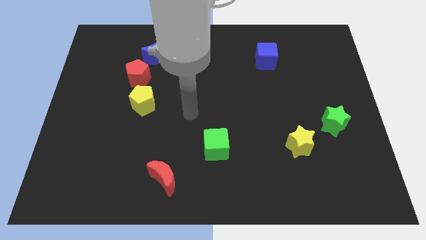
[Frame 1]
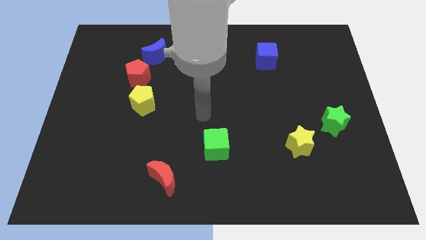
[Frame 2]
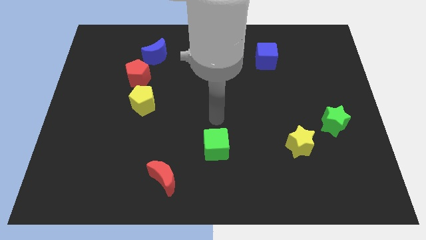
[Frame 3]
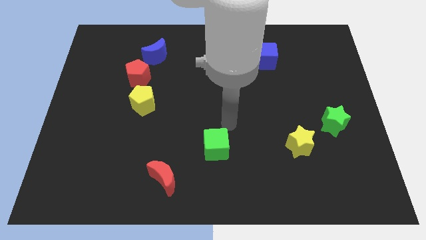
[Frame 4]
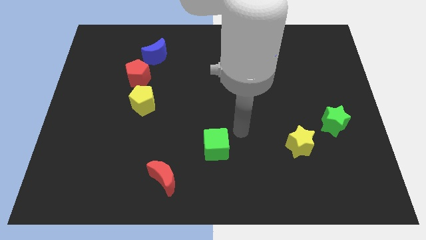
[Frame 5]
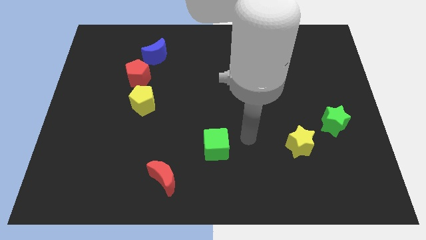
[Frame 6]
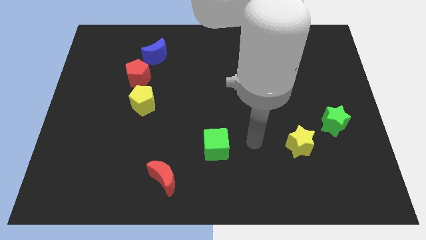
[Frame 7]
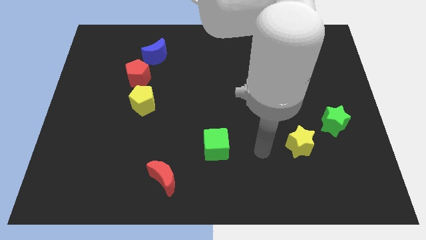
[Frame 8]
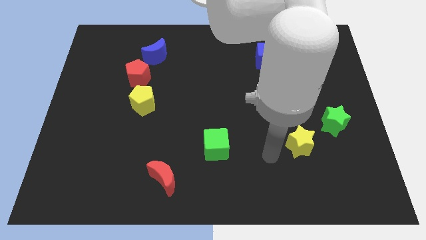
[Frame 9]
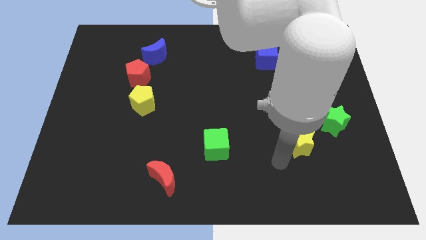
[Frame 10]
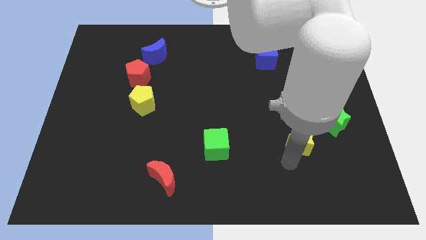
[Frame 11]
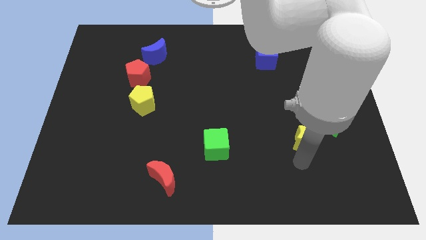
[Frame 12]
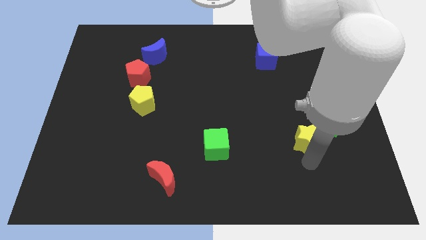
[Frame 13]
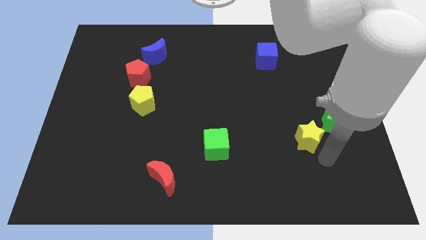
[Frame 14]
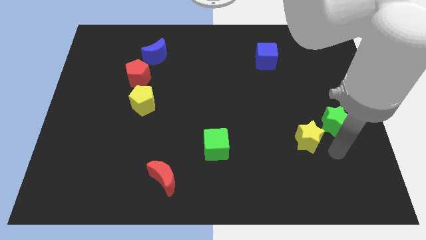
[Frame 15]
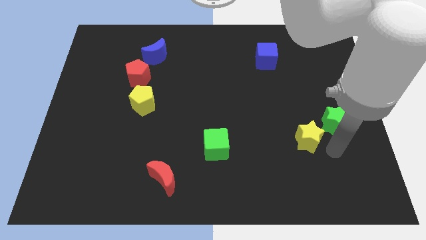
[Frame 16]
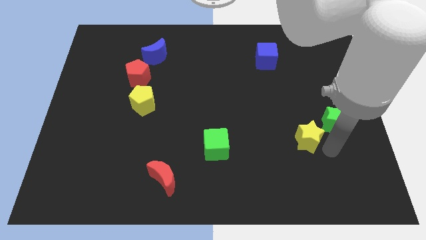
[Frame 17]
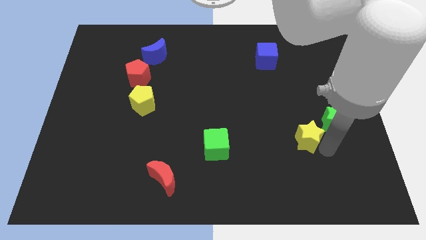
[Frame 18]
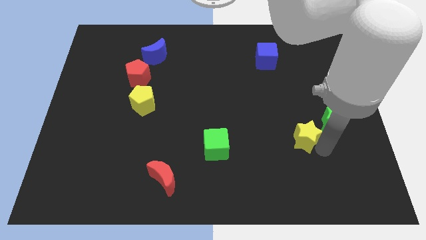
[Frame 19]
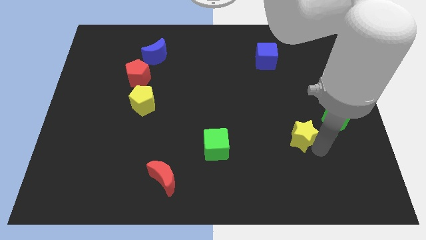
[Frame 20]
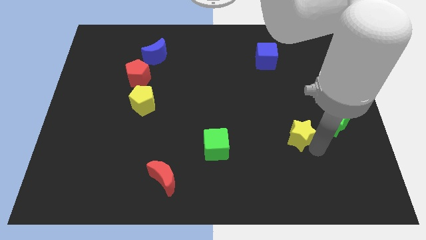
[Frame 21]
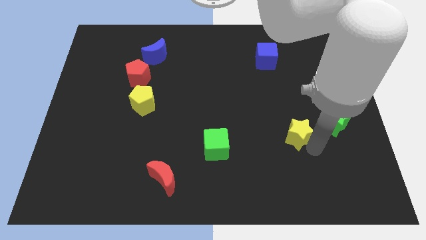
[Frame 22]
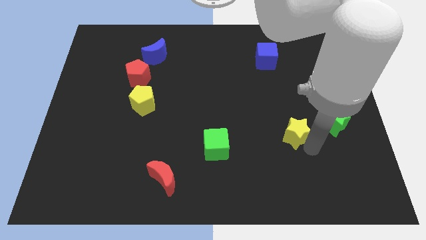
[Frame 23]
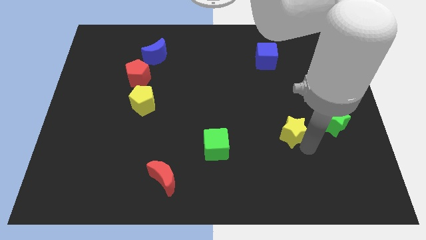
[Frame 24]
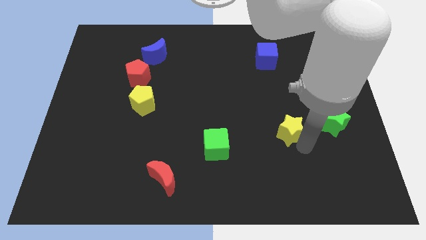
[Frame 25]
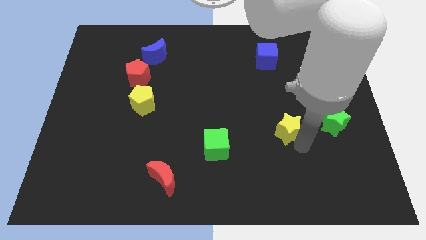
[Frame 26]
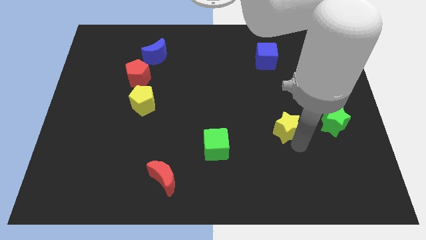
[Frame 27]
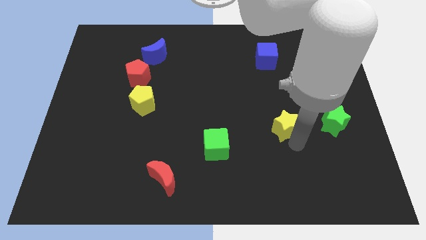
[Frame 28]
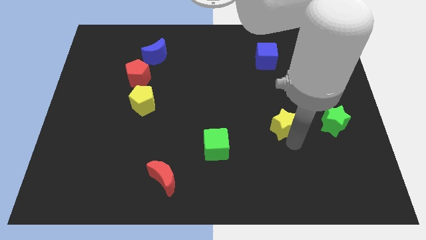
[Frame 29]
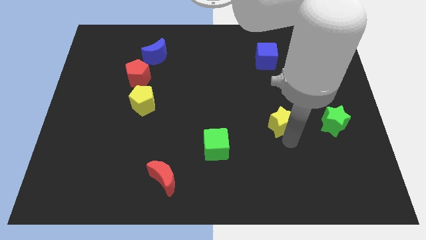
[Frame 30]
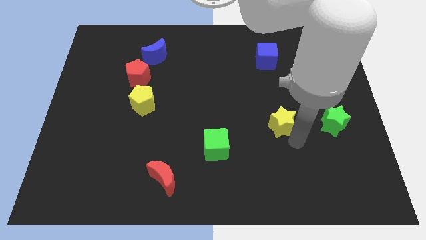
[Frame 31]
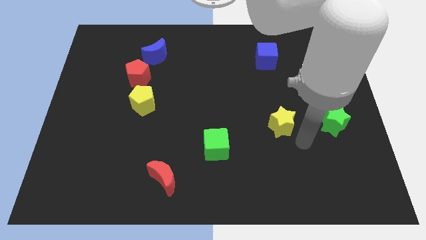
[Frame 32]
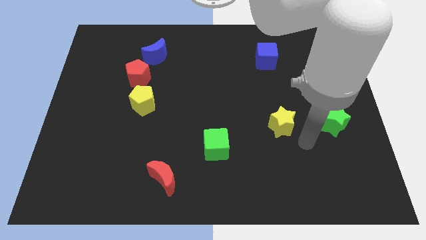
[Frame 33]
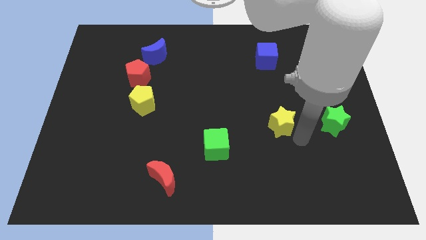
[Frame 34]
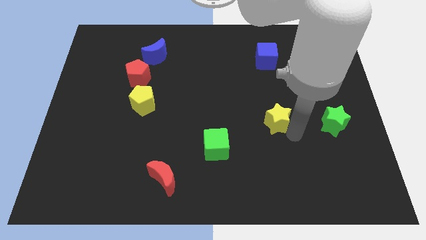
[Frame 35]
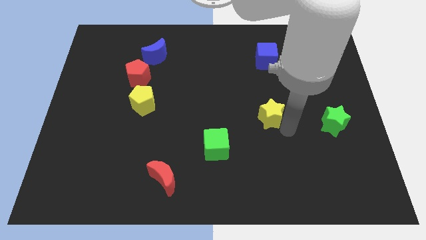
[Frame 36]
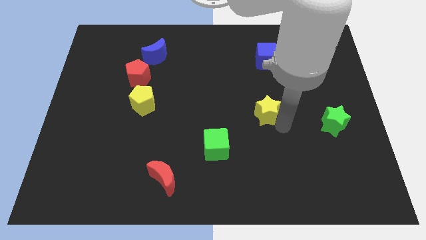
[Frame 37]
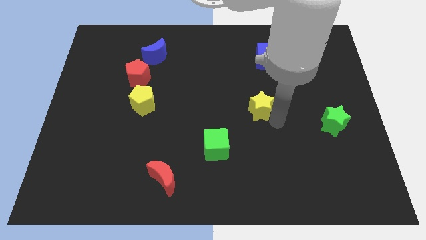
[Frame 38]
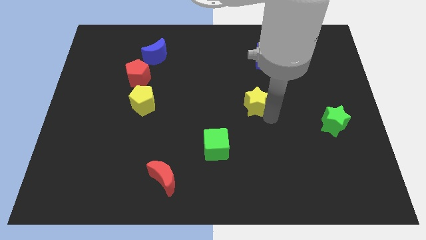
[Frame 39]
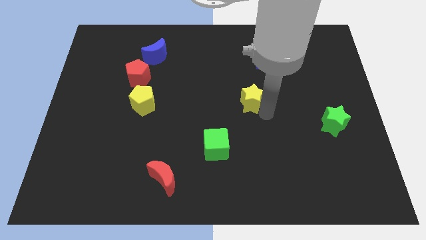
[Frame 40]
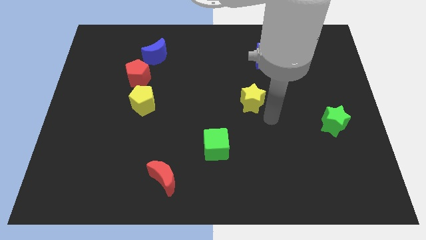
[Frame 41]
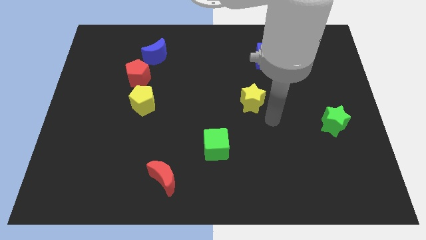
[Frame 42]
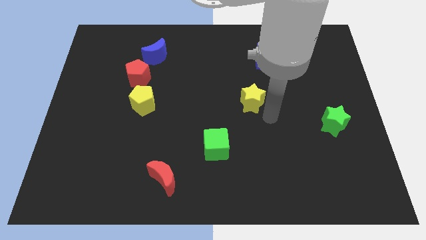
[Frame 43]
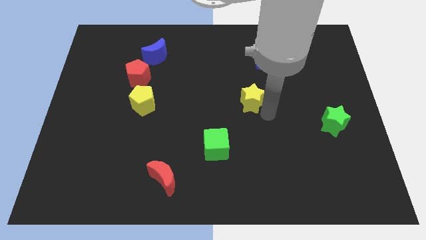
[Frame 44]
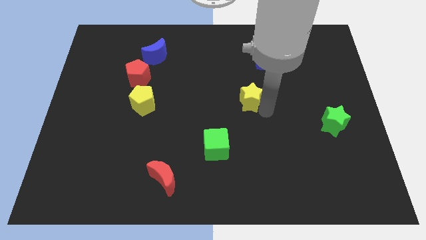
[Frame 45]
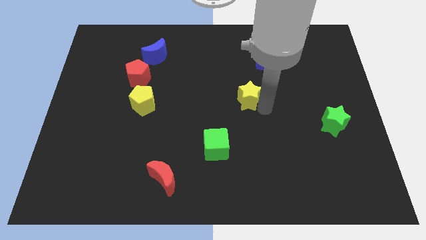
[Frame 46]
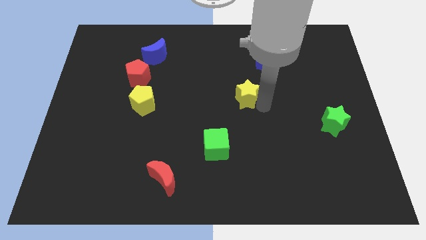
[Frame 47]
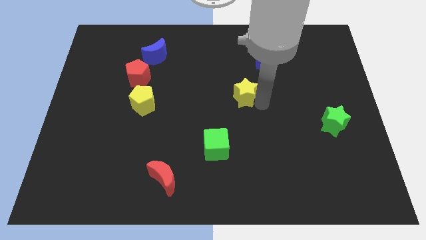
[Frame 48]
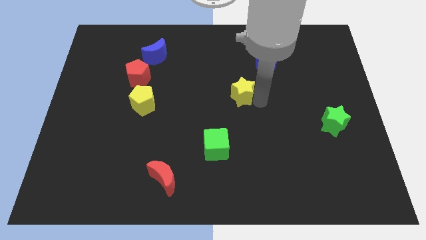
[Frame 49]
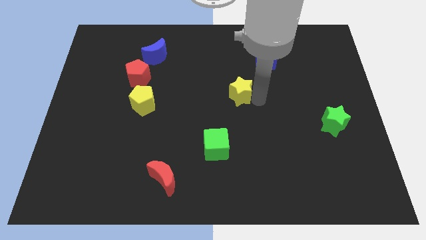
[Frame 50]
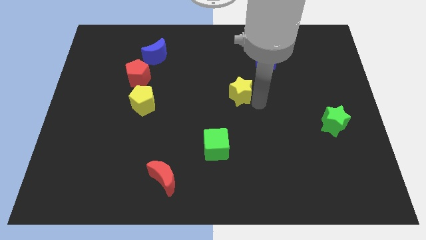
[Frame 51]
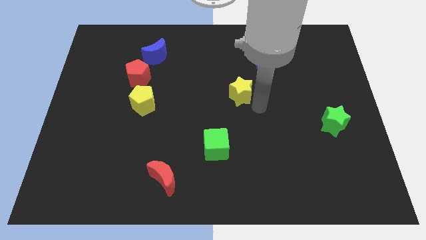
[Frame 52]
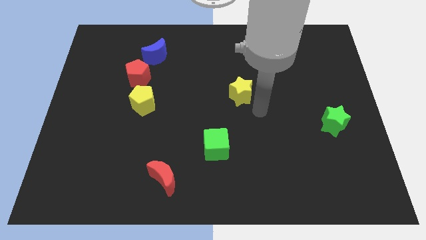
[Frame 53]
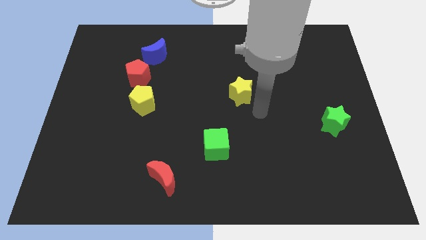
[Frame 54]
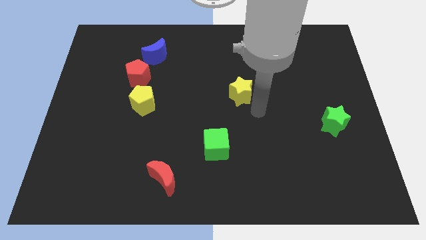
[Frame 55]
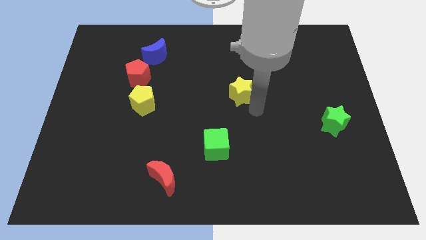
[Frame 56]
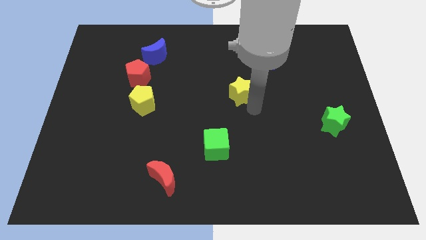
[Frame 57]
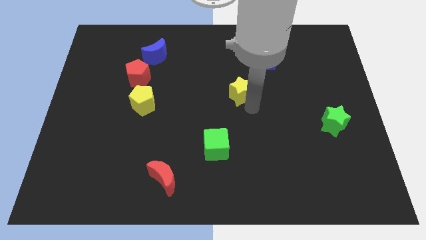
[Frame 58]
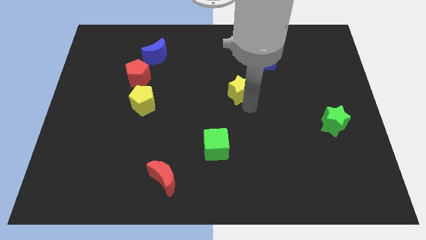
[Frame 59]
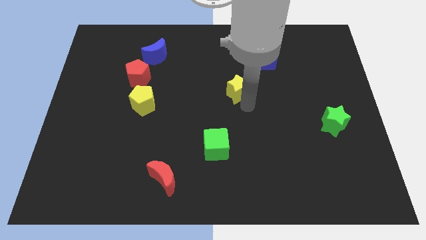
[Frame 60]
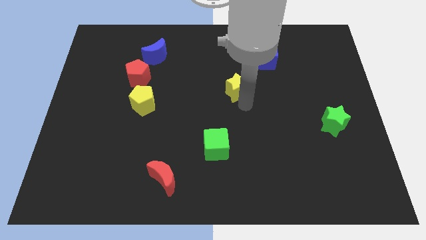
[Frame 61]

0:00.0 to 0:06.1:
push the yellow star up and left

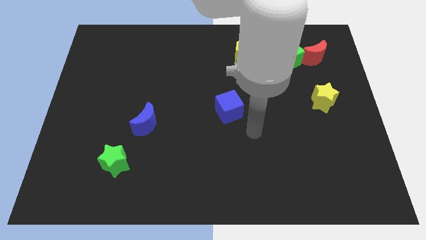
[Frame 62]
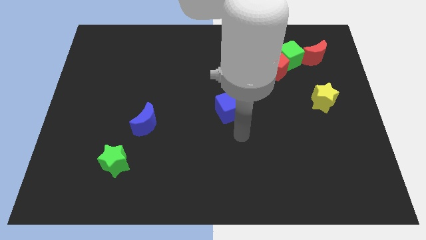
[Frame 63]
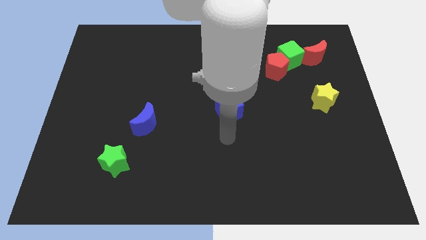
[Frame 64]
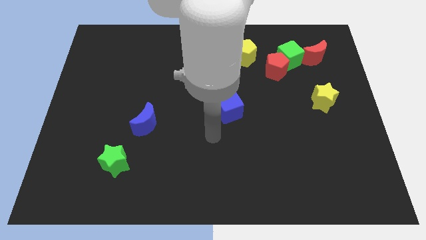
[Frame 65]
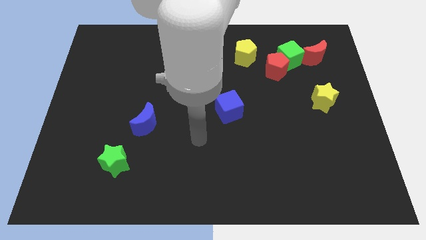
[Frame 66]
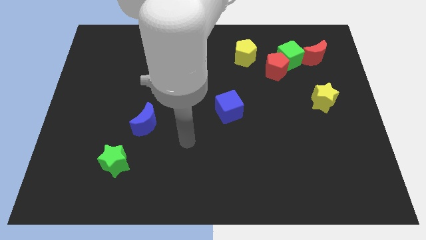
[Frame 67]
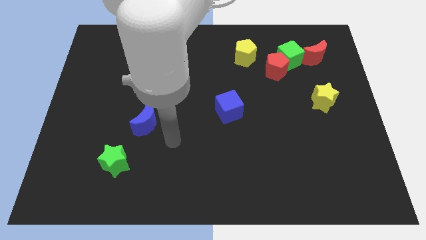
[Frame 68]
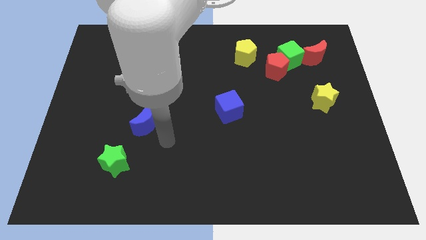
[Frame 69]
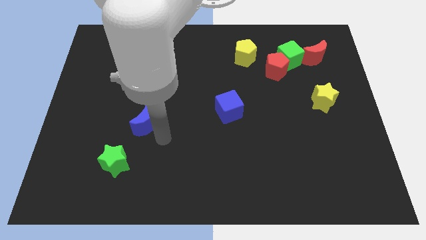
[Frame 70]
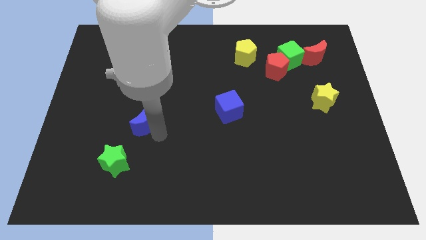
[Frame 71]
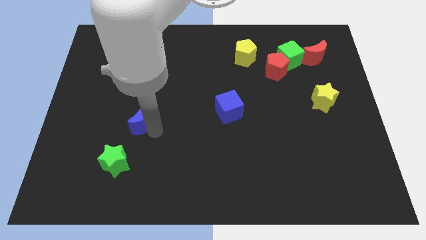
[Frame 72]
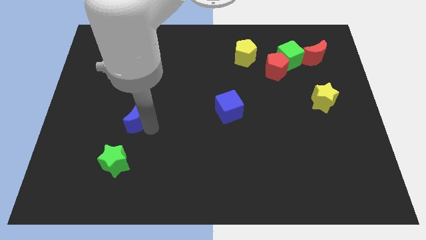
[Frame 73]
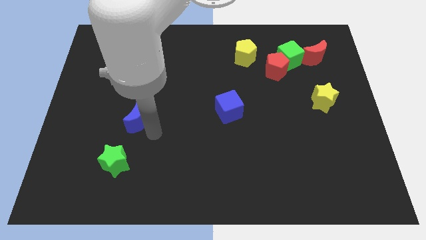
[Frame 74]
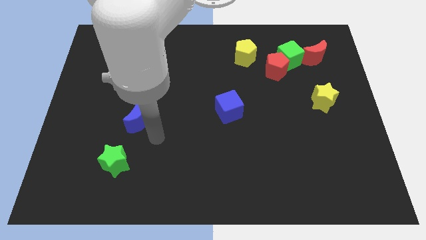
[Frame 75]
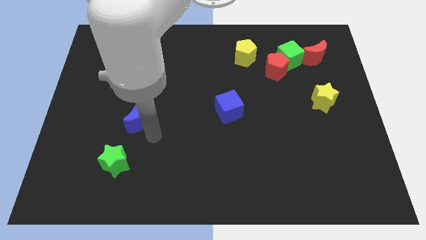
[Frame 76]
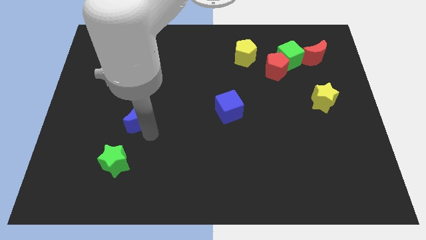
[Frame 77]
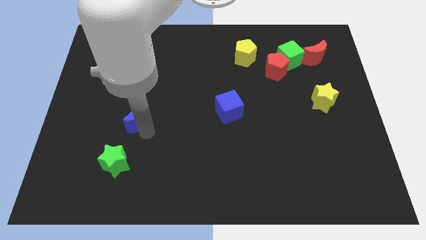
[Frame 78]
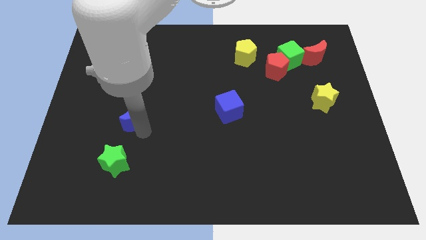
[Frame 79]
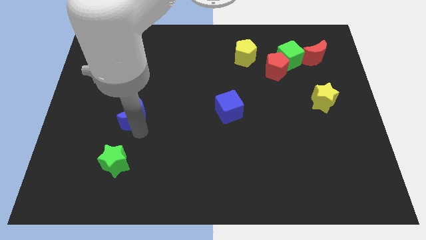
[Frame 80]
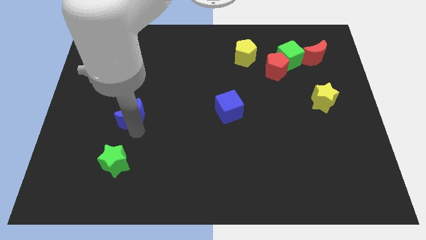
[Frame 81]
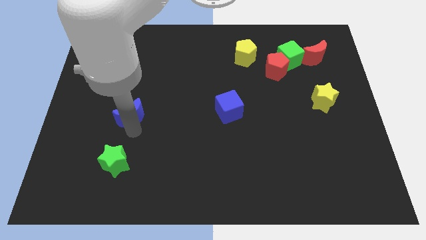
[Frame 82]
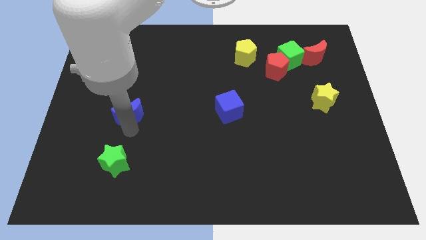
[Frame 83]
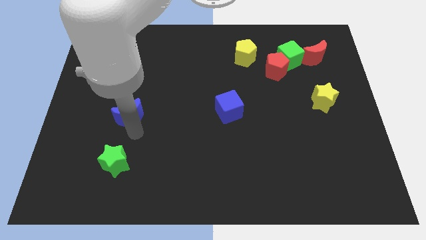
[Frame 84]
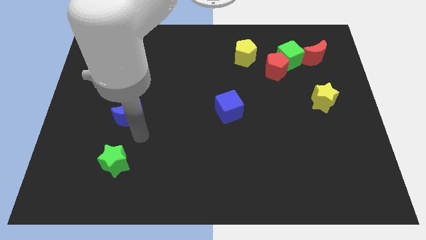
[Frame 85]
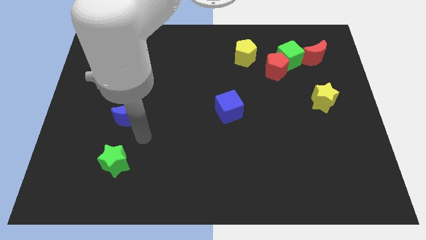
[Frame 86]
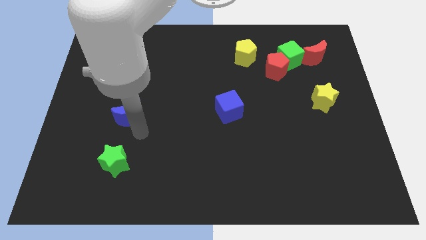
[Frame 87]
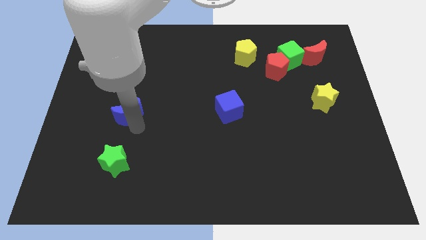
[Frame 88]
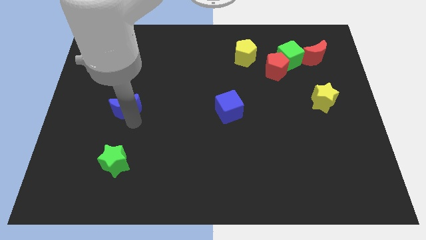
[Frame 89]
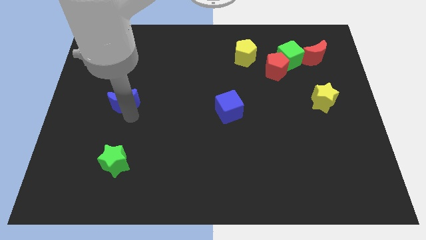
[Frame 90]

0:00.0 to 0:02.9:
slightly push the blue moon up and then to the left
